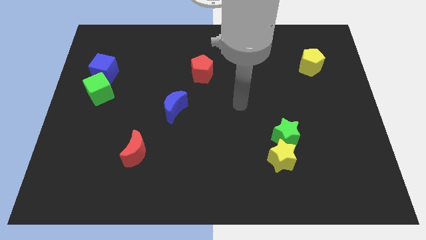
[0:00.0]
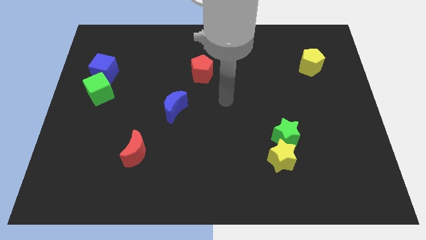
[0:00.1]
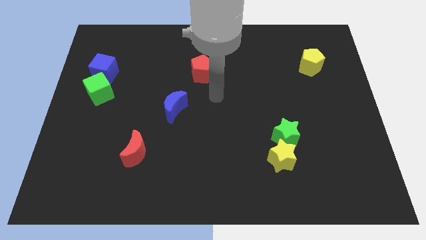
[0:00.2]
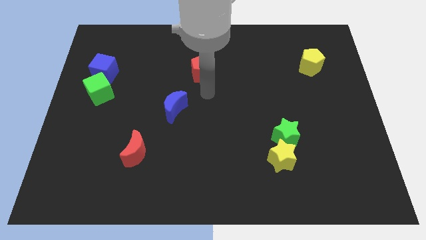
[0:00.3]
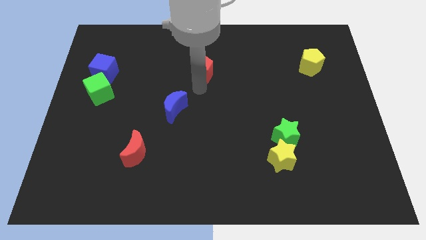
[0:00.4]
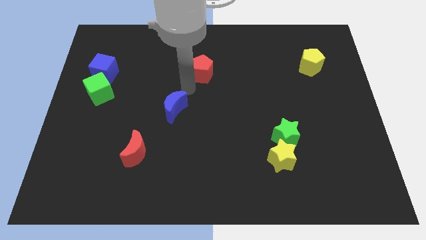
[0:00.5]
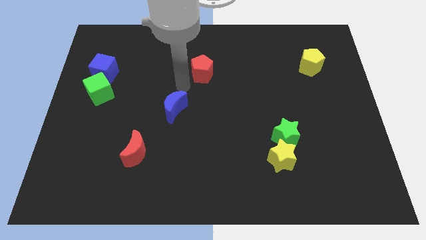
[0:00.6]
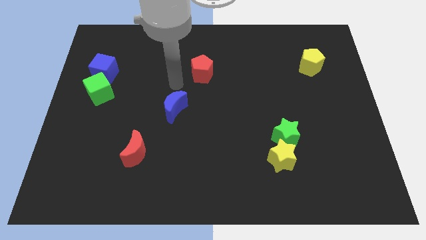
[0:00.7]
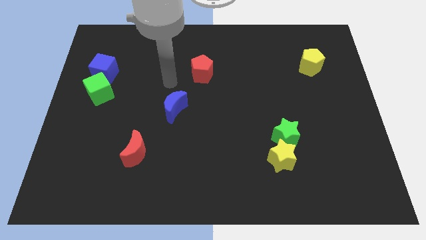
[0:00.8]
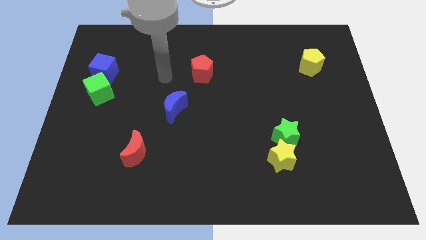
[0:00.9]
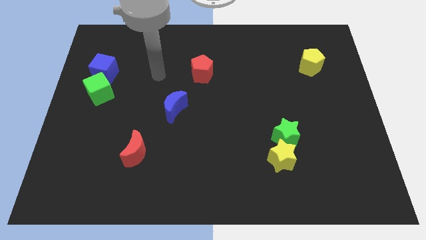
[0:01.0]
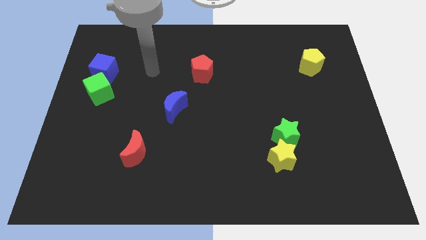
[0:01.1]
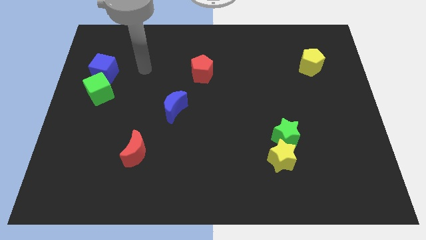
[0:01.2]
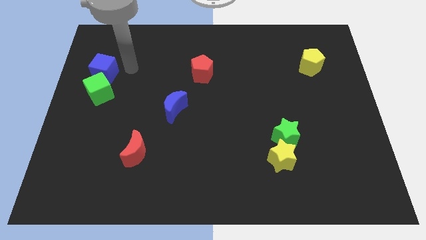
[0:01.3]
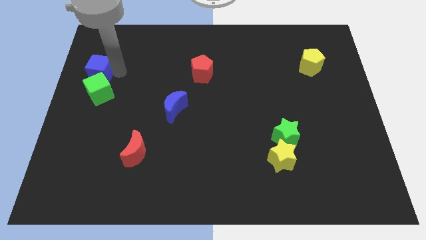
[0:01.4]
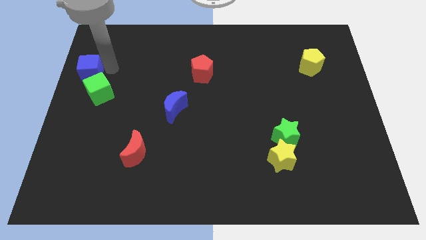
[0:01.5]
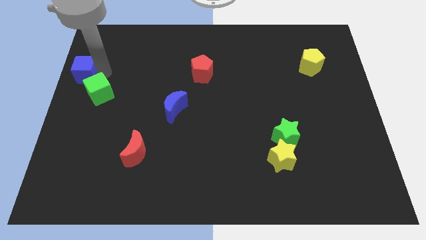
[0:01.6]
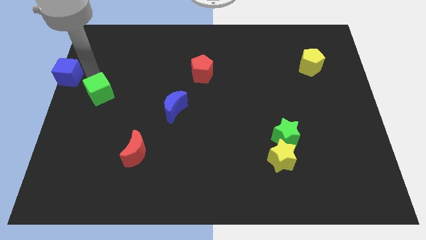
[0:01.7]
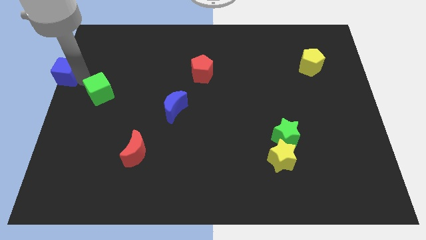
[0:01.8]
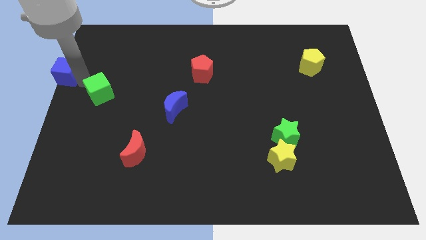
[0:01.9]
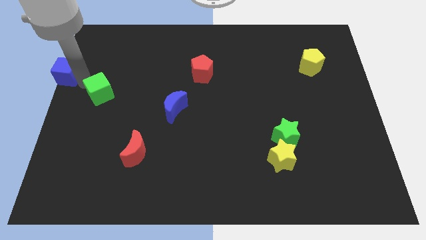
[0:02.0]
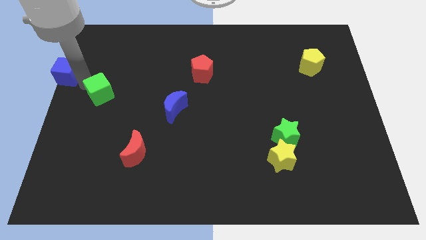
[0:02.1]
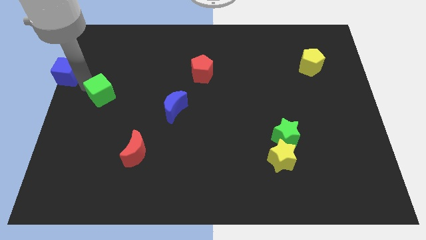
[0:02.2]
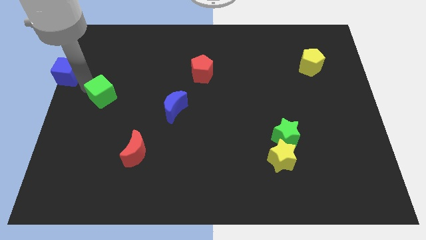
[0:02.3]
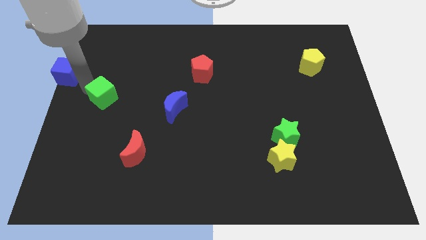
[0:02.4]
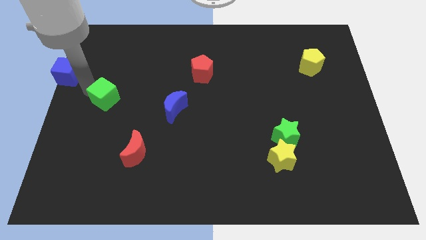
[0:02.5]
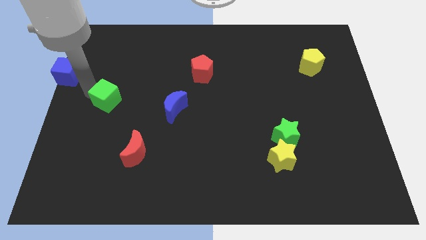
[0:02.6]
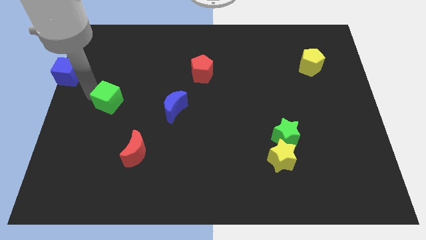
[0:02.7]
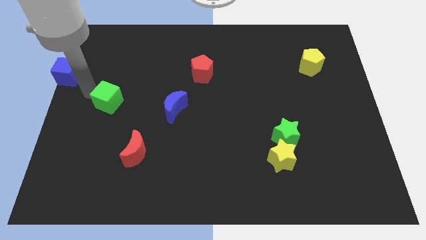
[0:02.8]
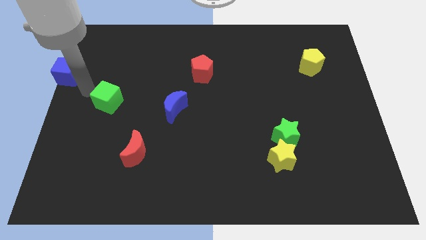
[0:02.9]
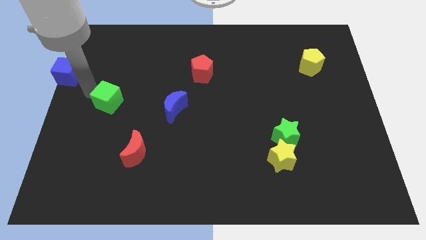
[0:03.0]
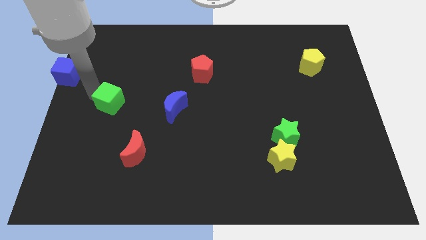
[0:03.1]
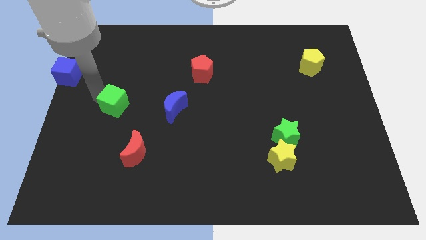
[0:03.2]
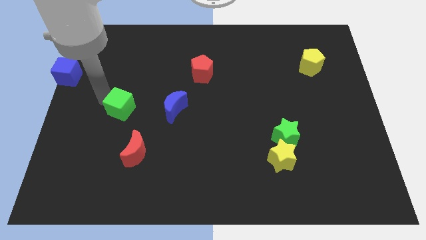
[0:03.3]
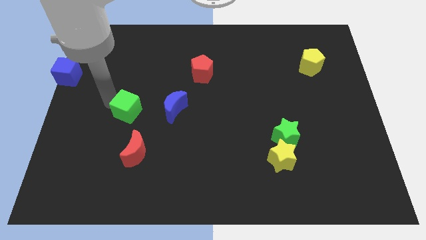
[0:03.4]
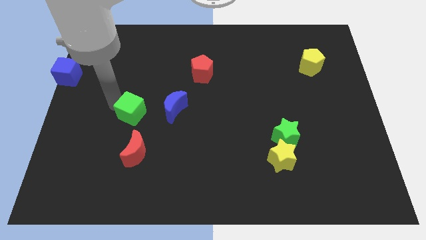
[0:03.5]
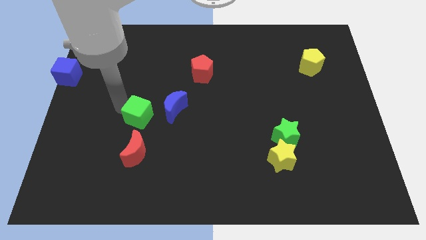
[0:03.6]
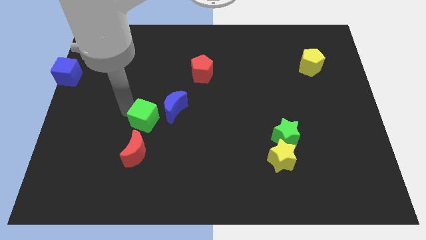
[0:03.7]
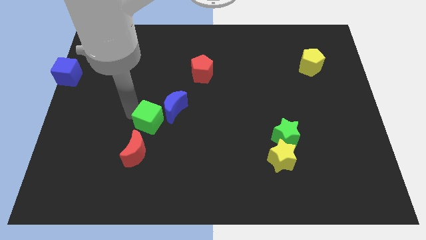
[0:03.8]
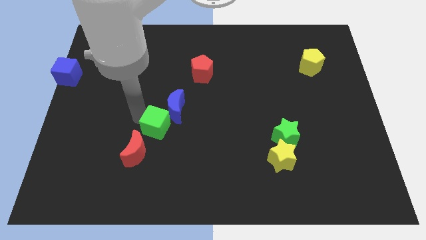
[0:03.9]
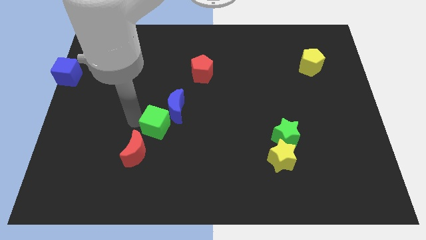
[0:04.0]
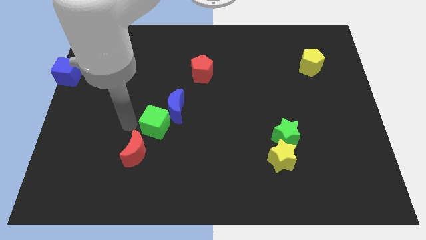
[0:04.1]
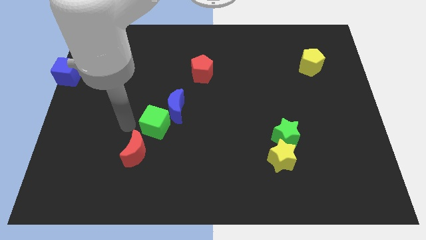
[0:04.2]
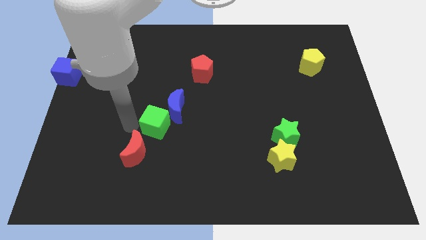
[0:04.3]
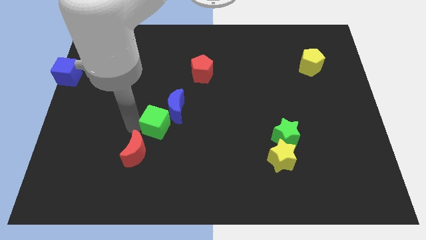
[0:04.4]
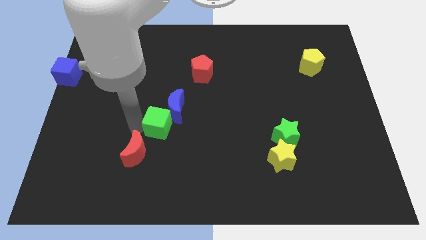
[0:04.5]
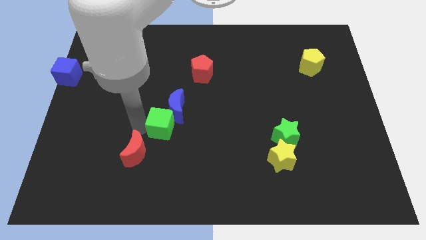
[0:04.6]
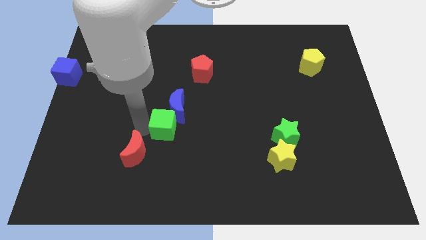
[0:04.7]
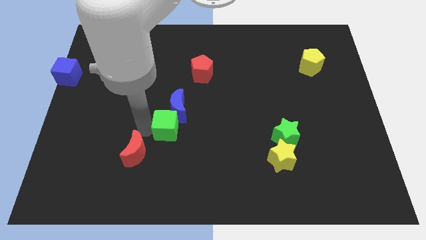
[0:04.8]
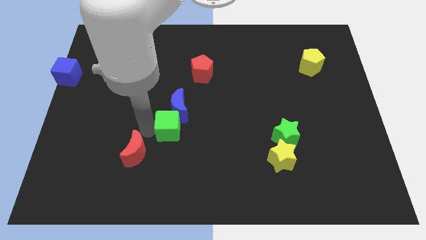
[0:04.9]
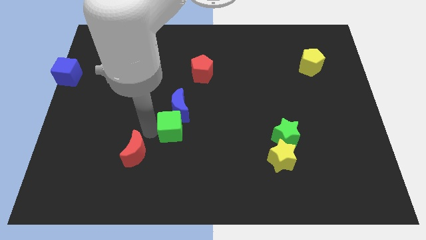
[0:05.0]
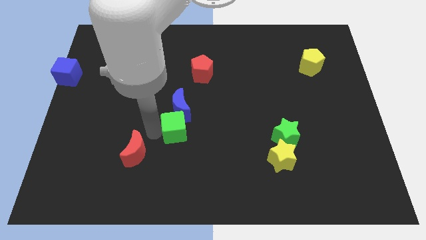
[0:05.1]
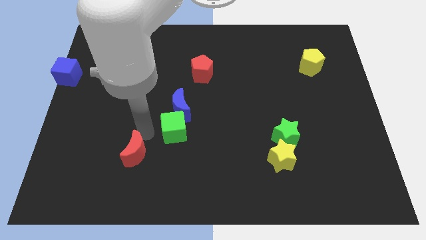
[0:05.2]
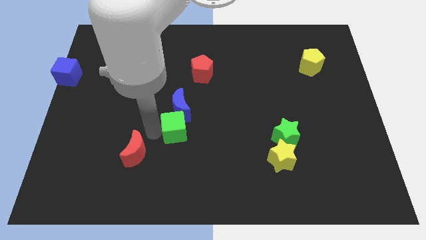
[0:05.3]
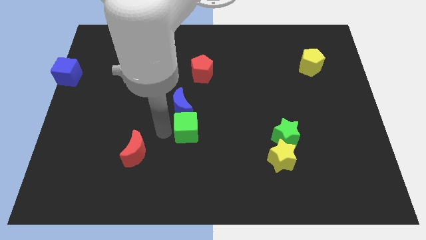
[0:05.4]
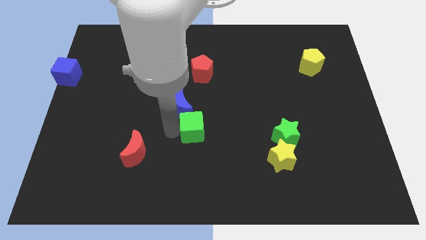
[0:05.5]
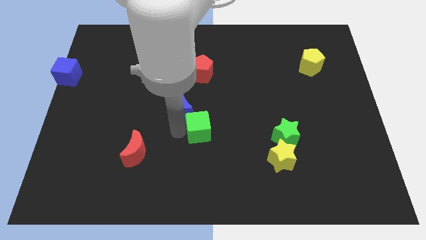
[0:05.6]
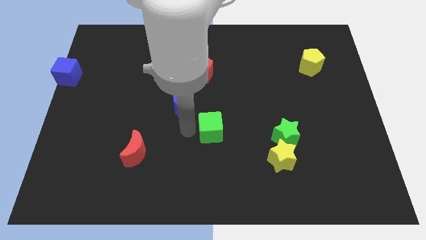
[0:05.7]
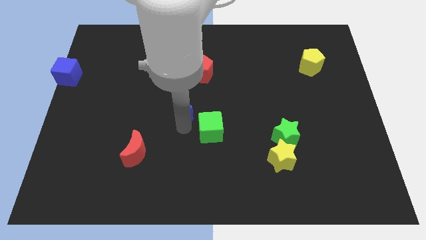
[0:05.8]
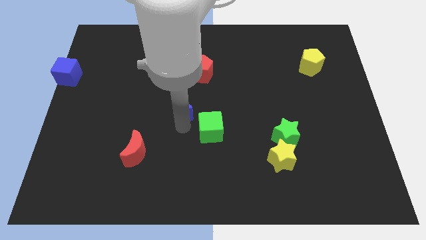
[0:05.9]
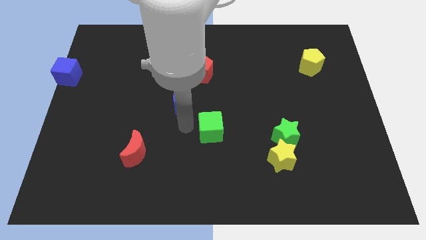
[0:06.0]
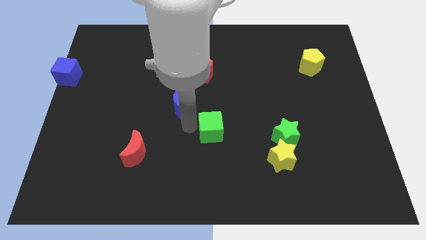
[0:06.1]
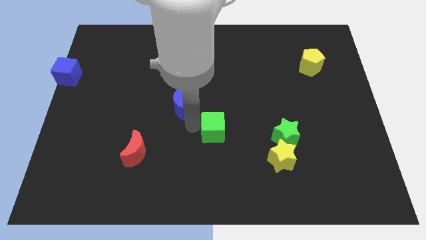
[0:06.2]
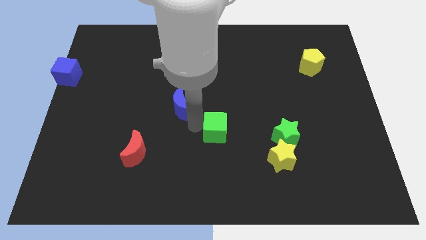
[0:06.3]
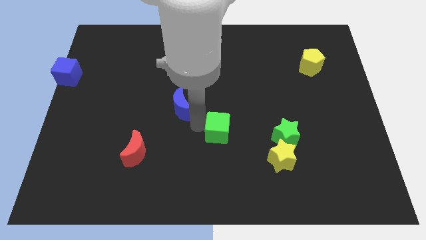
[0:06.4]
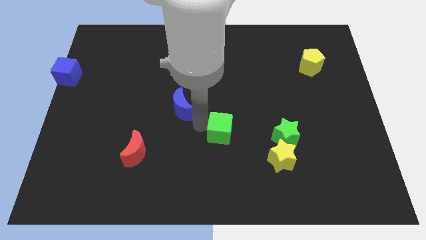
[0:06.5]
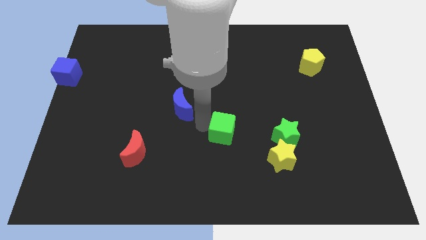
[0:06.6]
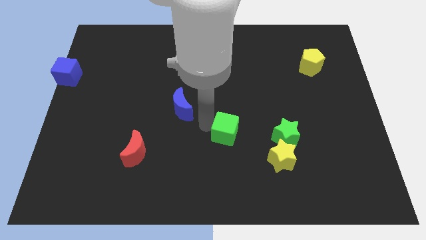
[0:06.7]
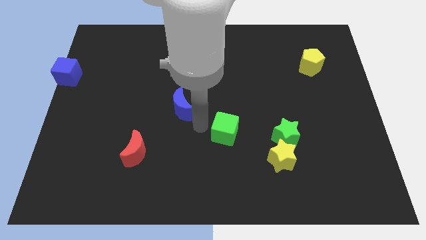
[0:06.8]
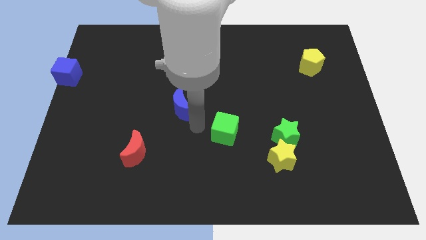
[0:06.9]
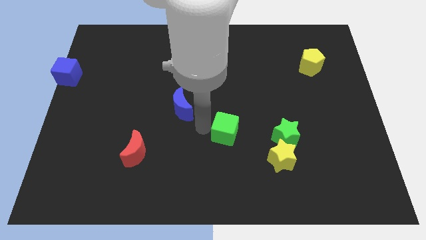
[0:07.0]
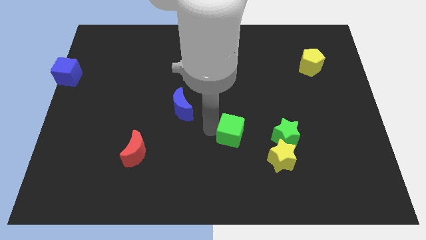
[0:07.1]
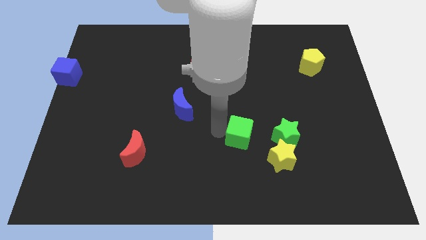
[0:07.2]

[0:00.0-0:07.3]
put the green cube to the top left side of the yellow star
